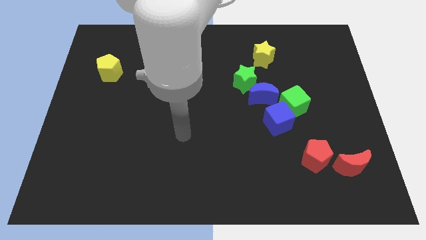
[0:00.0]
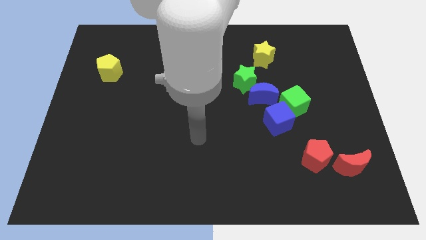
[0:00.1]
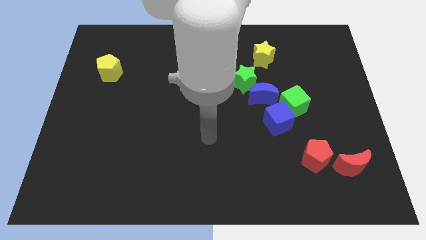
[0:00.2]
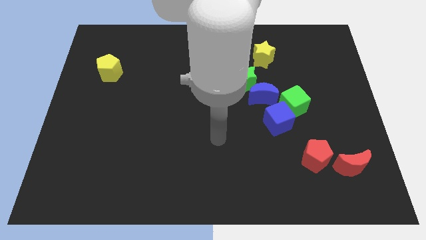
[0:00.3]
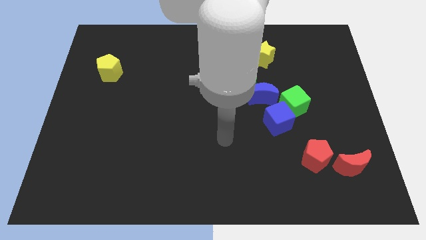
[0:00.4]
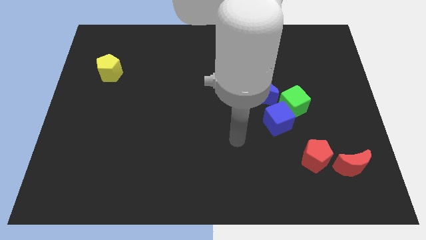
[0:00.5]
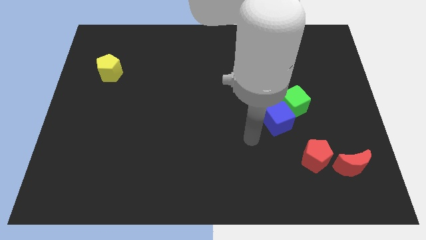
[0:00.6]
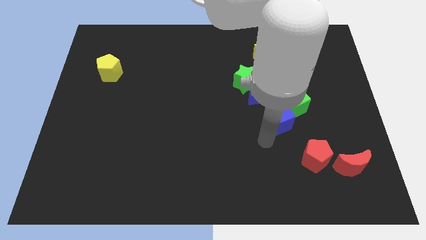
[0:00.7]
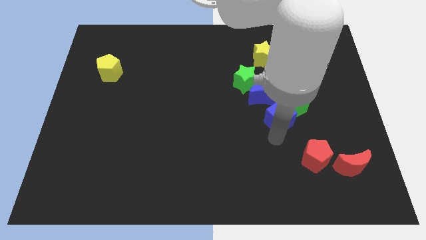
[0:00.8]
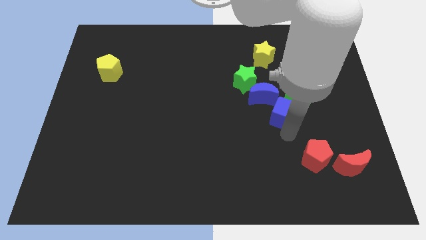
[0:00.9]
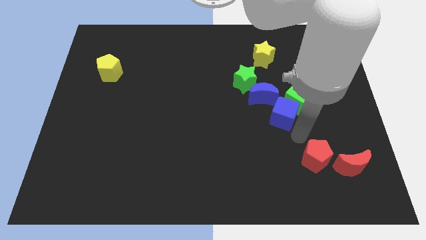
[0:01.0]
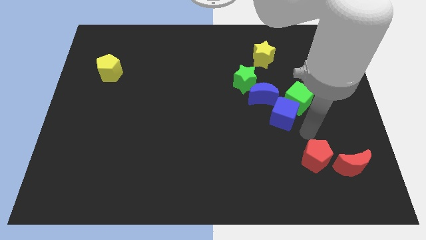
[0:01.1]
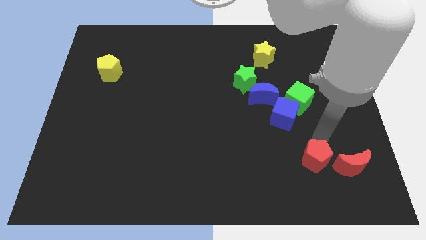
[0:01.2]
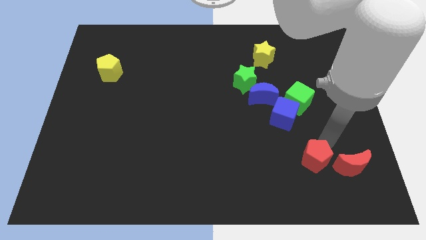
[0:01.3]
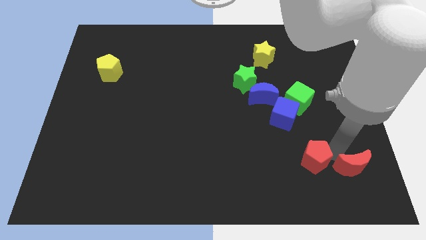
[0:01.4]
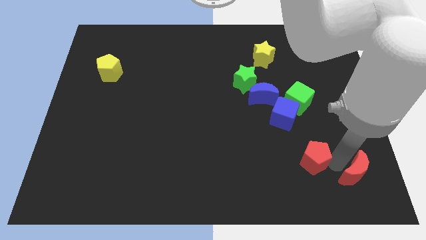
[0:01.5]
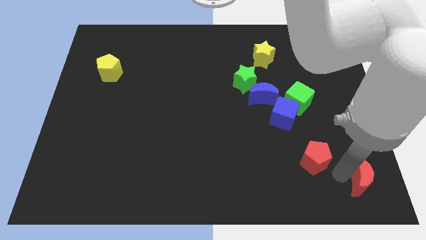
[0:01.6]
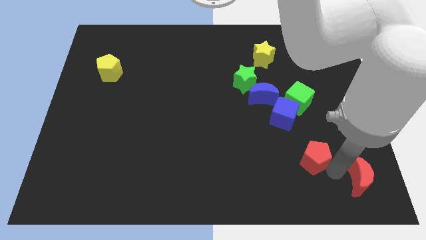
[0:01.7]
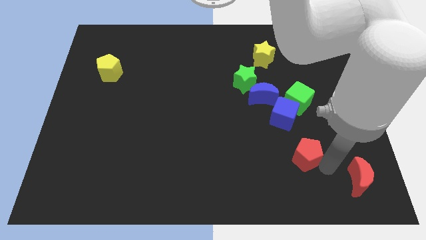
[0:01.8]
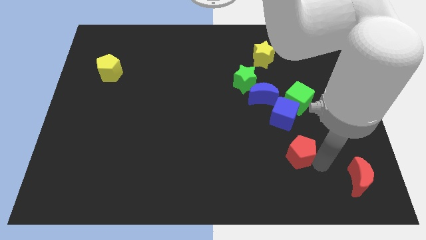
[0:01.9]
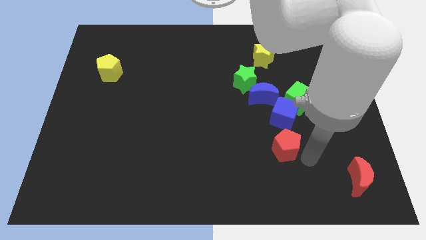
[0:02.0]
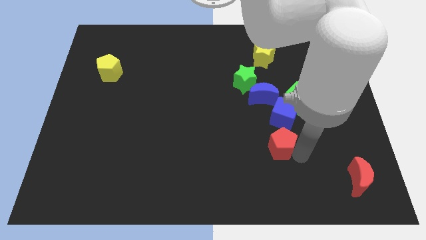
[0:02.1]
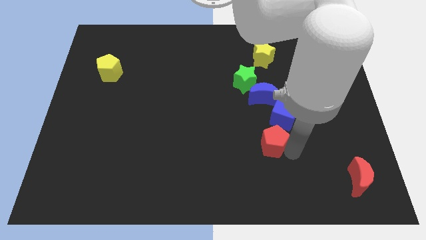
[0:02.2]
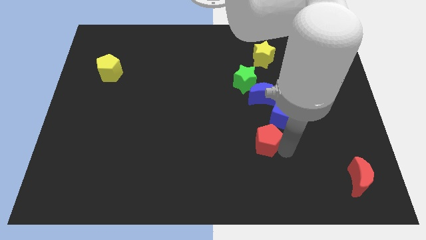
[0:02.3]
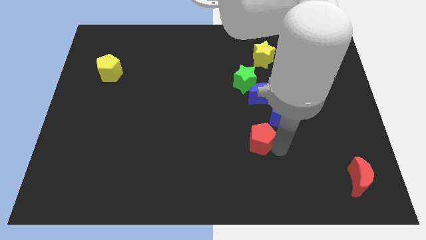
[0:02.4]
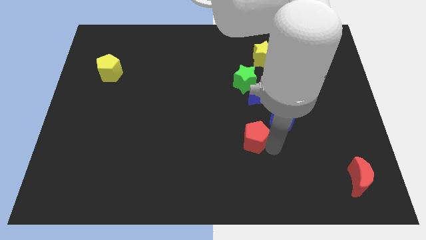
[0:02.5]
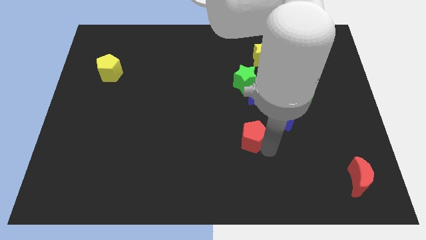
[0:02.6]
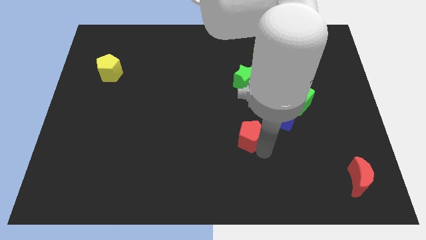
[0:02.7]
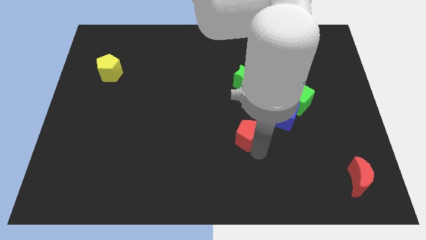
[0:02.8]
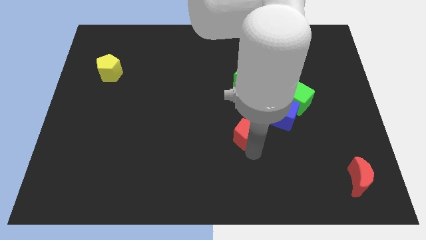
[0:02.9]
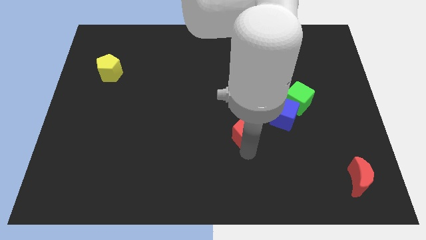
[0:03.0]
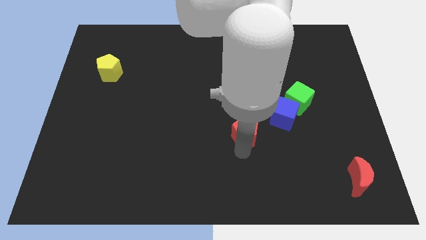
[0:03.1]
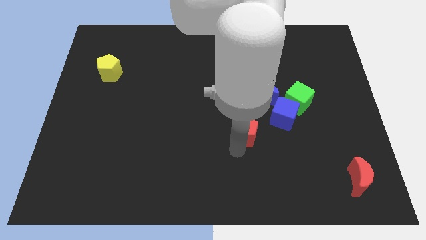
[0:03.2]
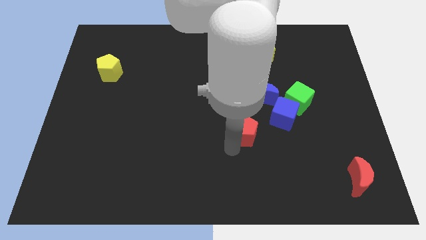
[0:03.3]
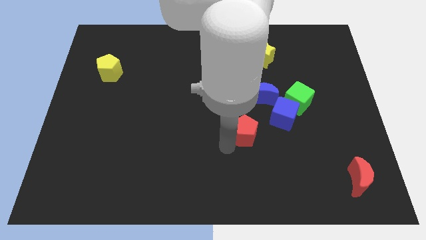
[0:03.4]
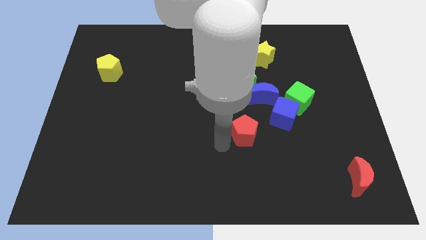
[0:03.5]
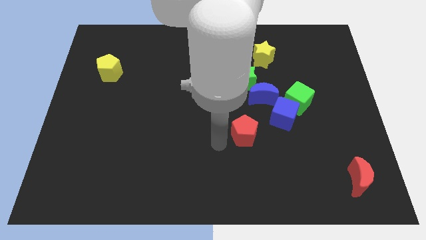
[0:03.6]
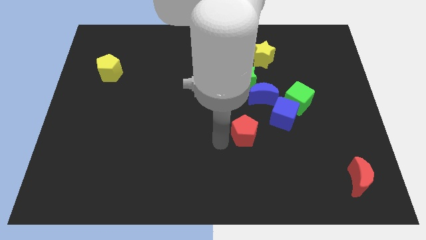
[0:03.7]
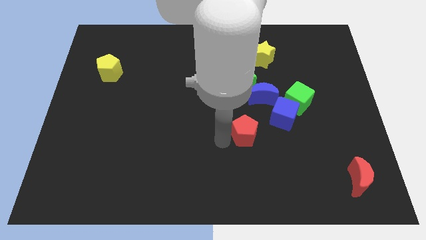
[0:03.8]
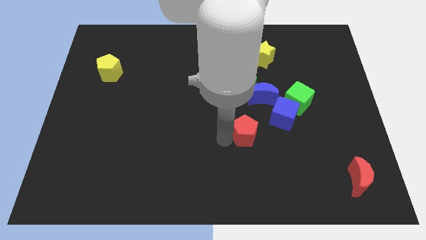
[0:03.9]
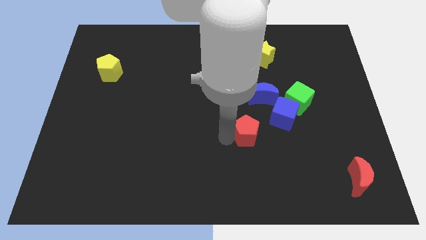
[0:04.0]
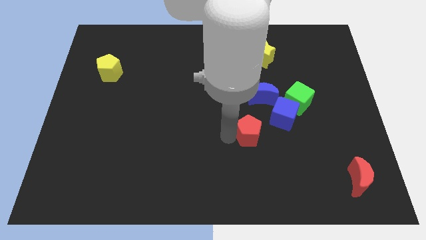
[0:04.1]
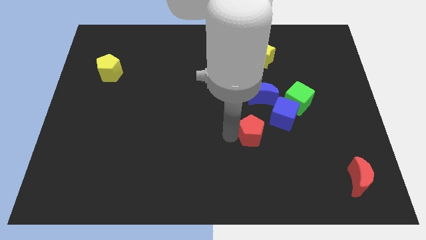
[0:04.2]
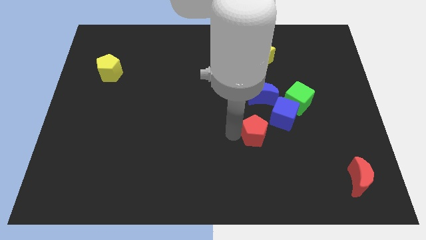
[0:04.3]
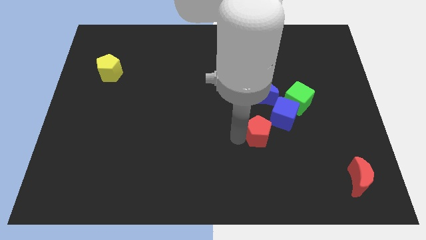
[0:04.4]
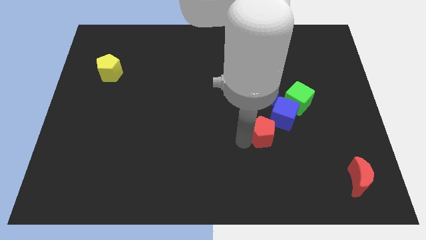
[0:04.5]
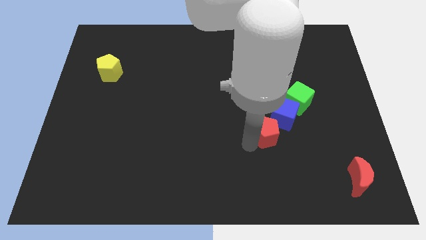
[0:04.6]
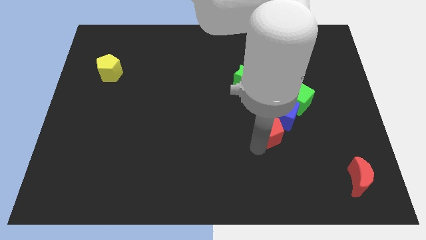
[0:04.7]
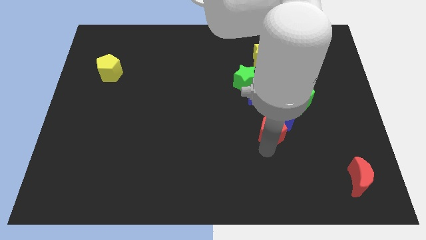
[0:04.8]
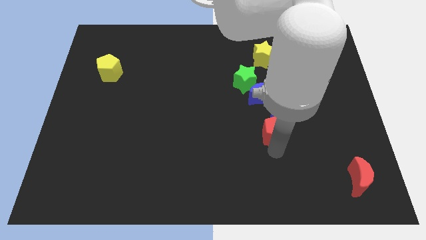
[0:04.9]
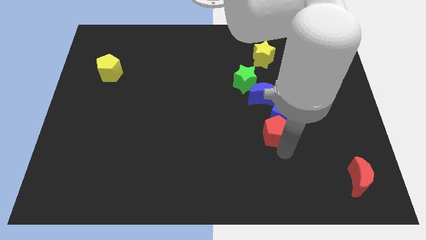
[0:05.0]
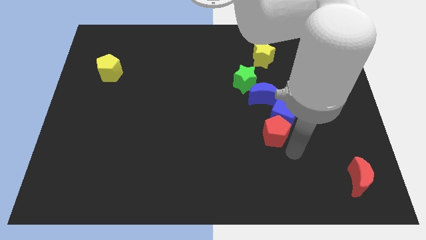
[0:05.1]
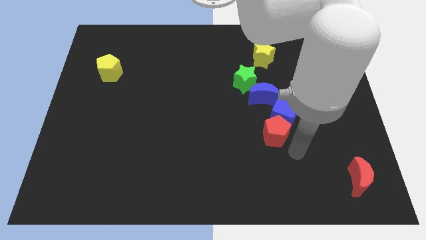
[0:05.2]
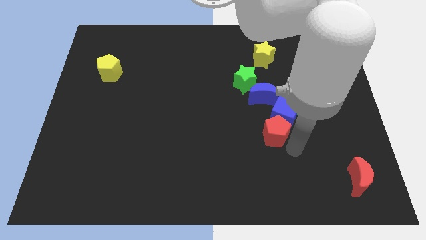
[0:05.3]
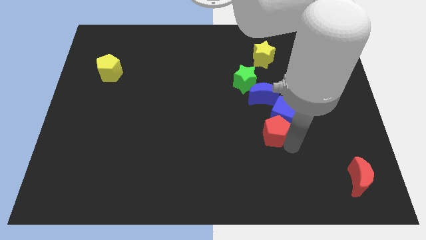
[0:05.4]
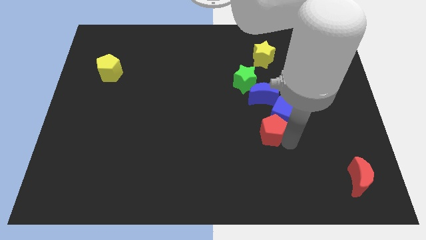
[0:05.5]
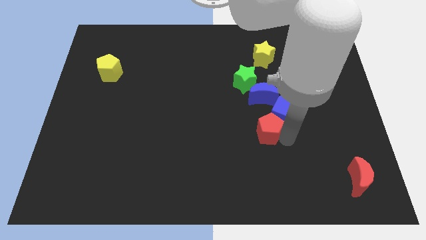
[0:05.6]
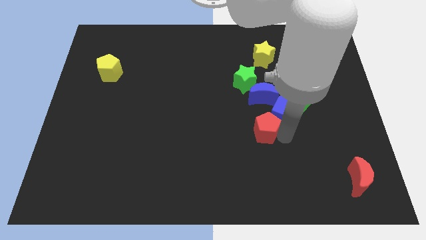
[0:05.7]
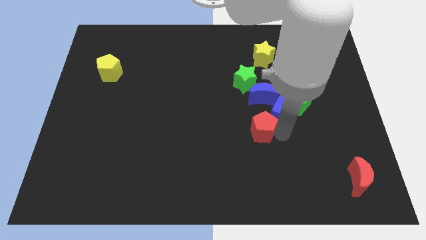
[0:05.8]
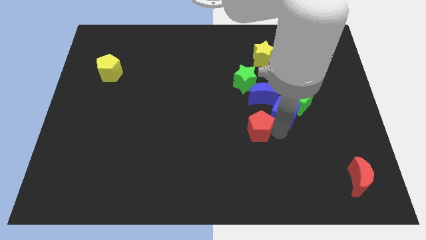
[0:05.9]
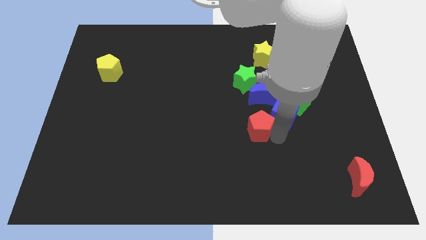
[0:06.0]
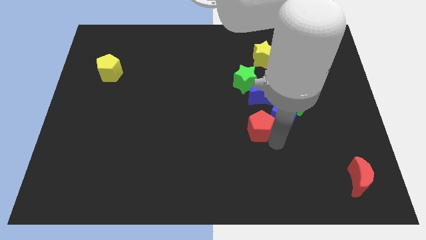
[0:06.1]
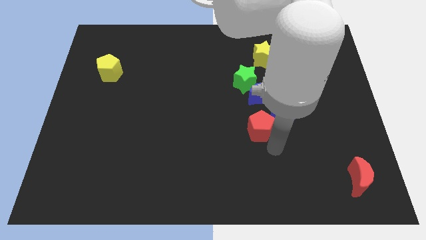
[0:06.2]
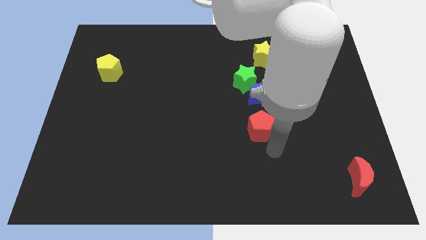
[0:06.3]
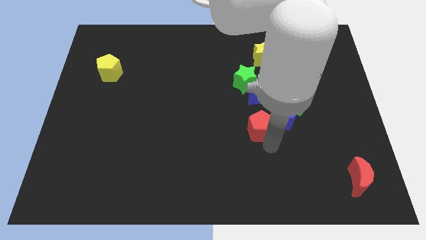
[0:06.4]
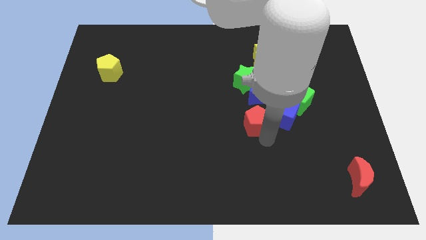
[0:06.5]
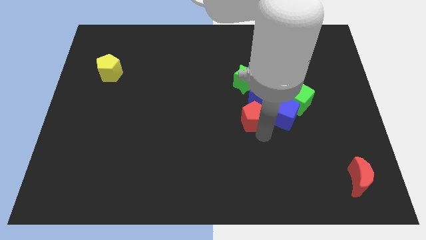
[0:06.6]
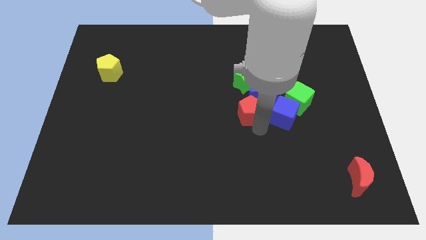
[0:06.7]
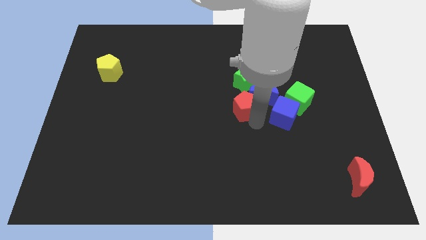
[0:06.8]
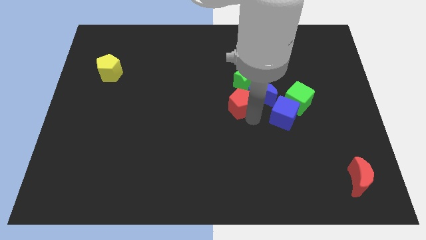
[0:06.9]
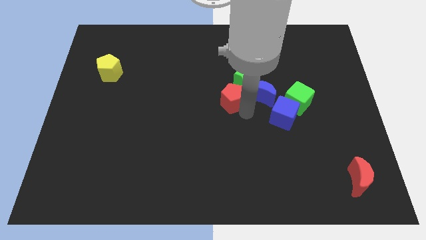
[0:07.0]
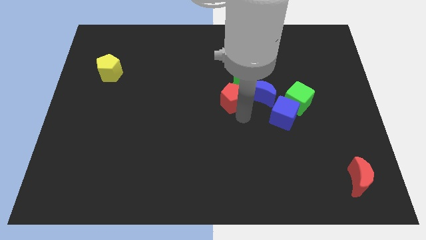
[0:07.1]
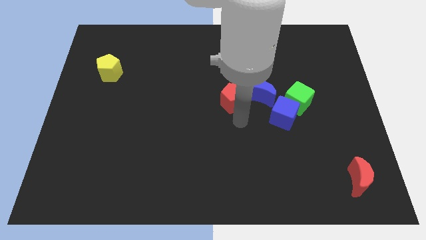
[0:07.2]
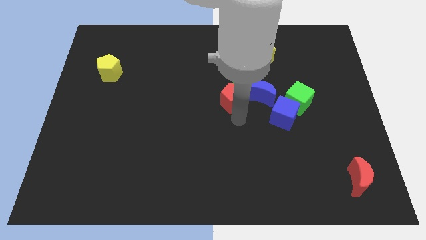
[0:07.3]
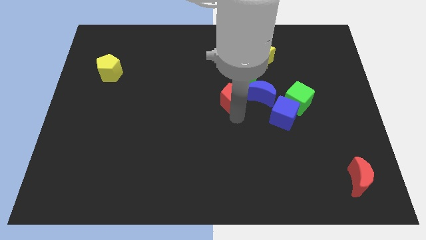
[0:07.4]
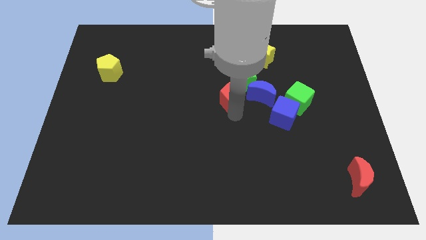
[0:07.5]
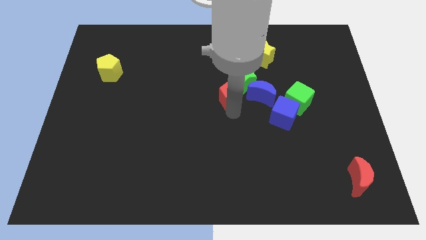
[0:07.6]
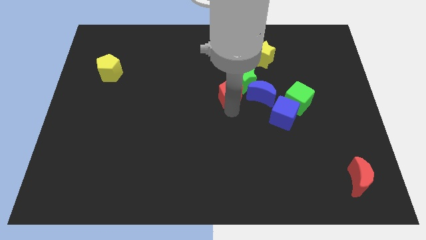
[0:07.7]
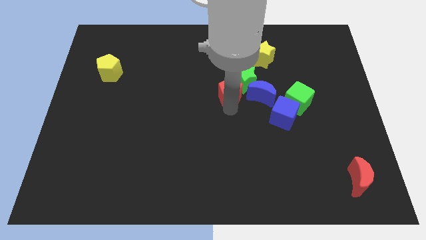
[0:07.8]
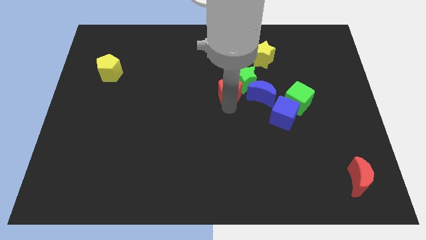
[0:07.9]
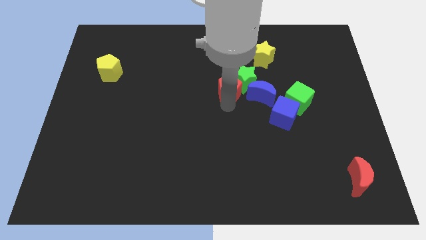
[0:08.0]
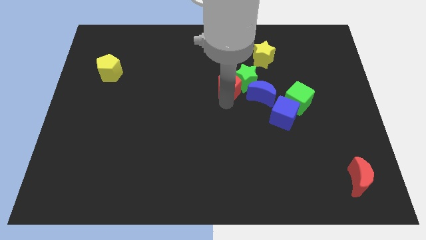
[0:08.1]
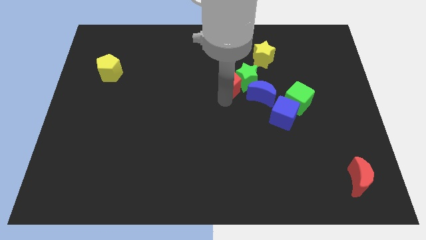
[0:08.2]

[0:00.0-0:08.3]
put the red pentagon diagonally up and to the left of the green star
